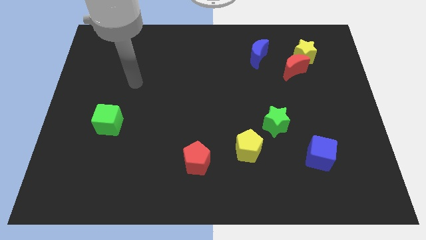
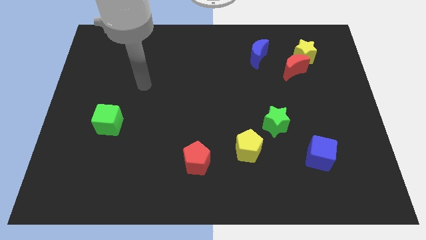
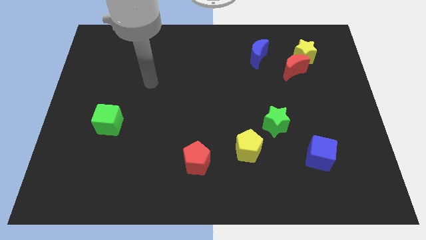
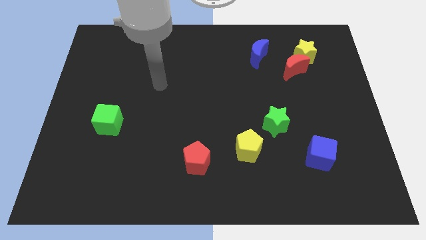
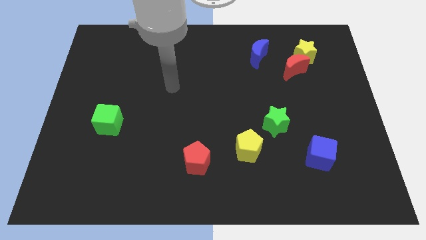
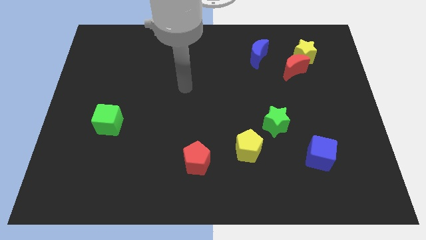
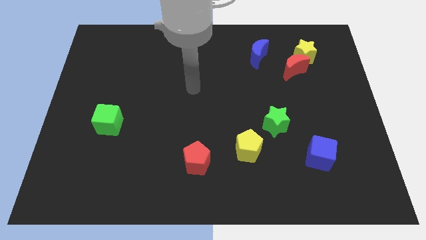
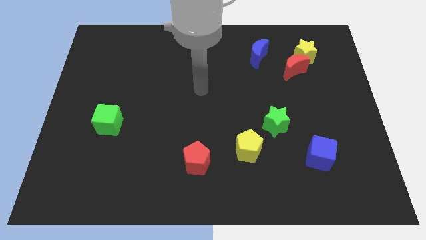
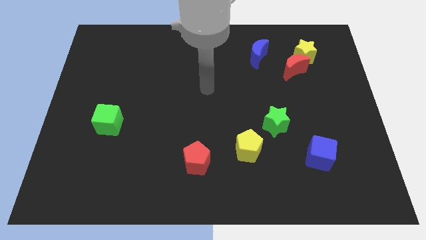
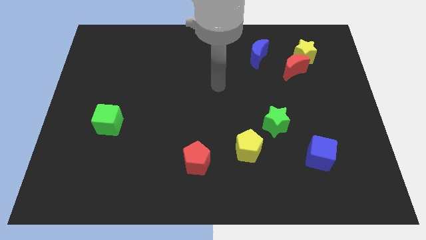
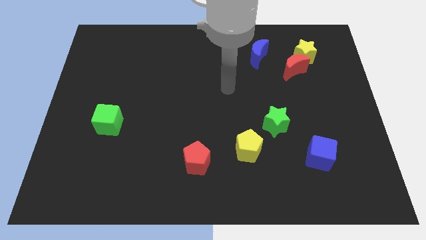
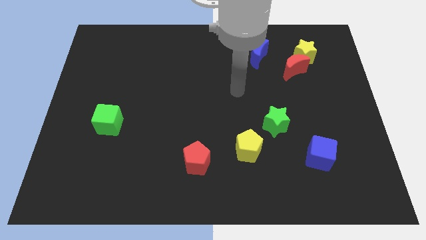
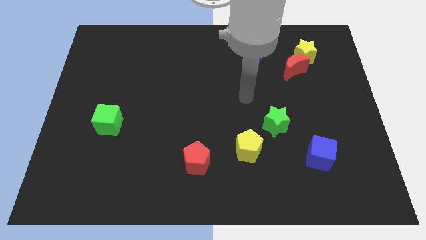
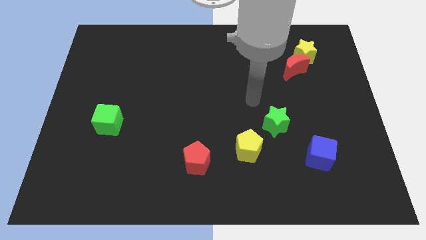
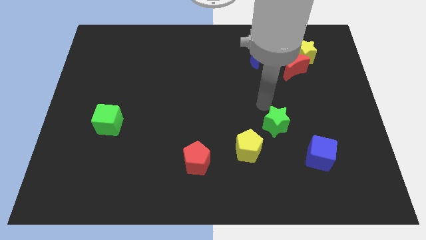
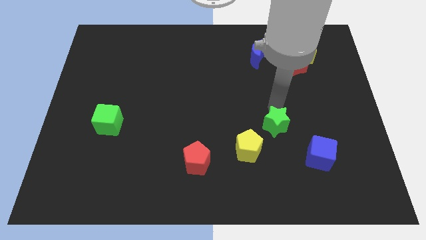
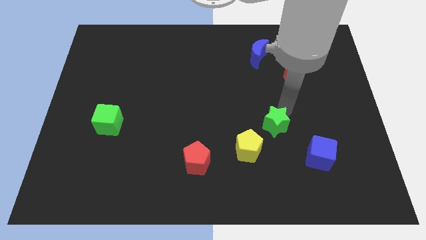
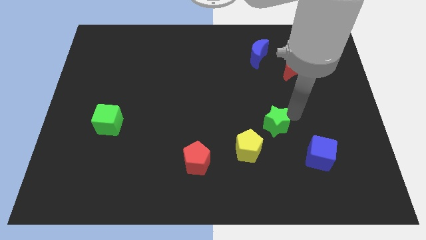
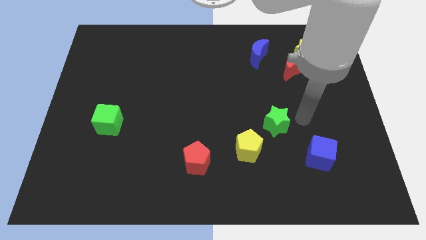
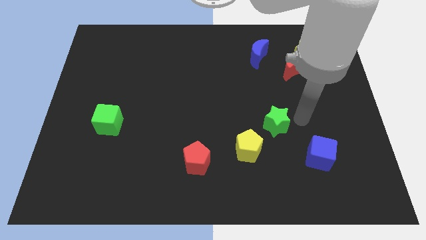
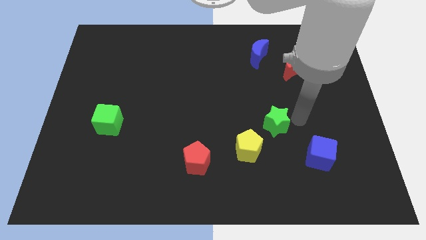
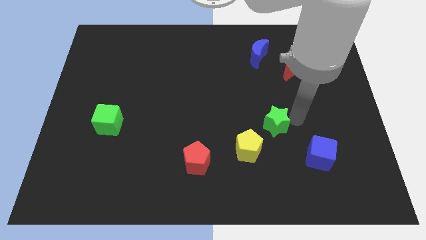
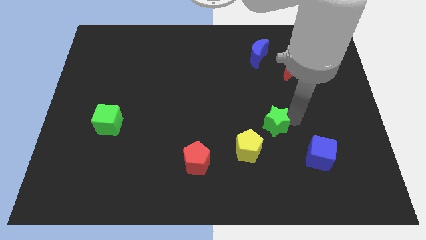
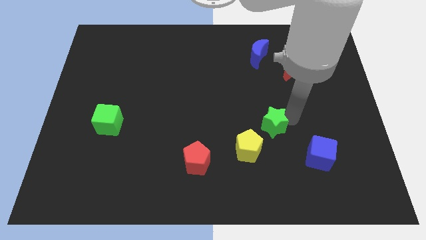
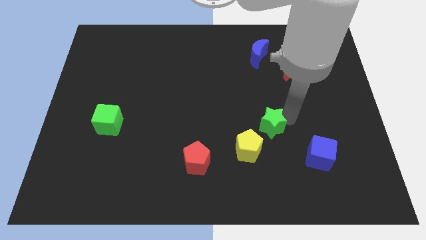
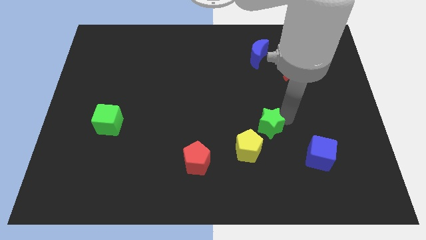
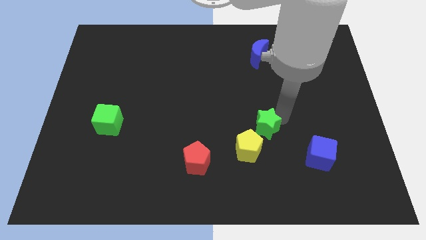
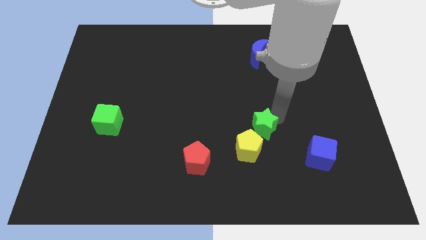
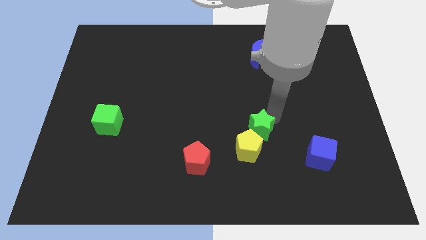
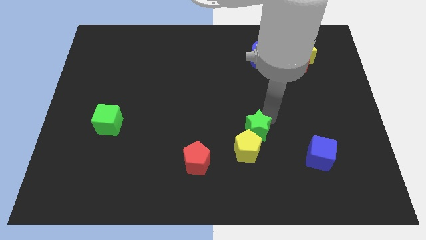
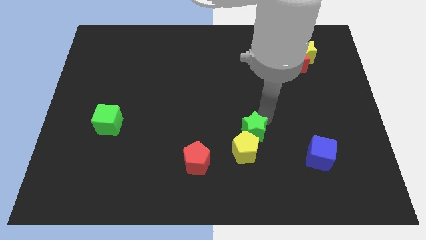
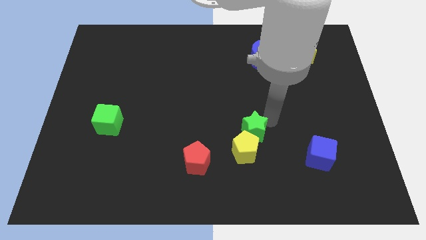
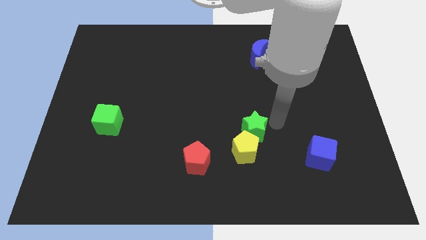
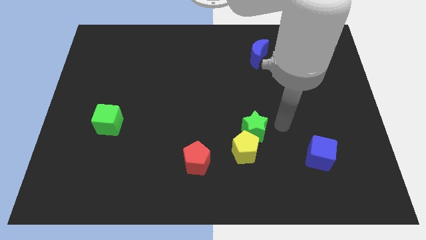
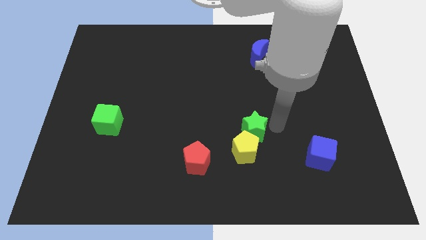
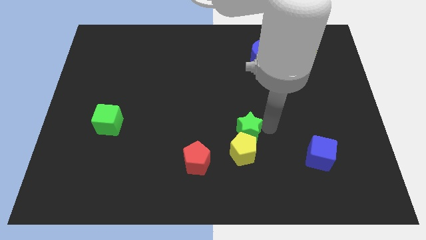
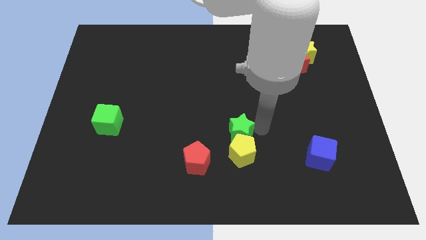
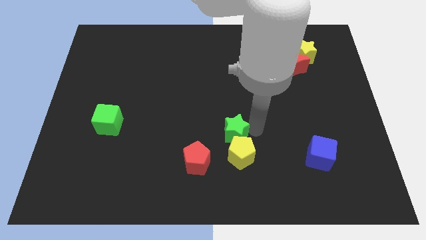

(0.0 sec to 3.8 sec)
slide the green star a little down and left diagonally

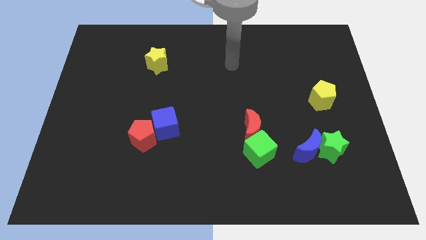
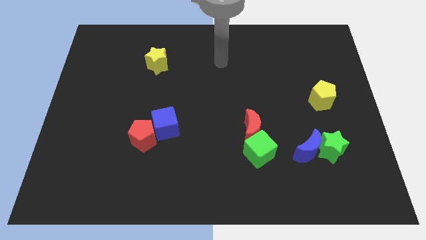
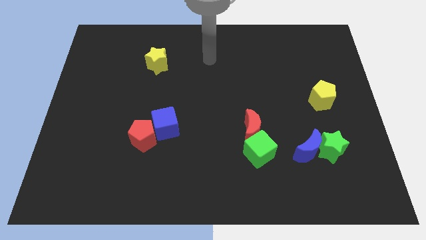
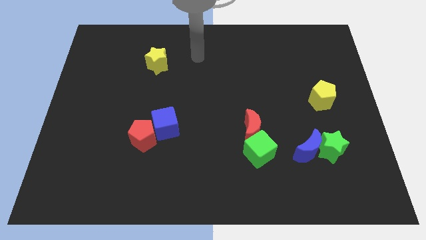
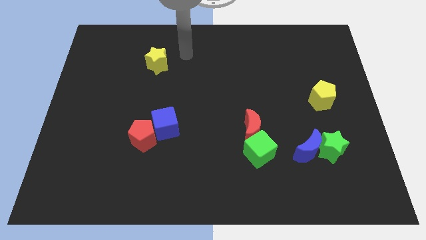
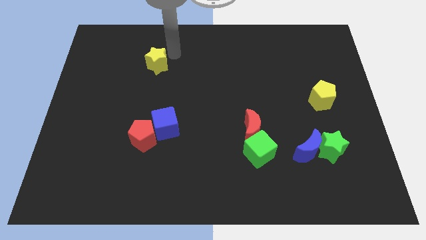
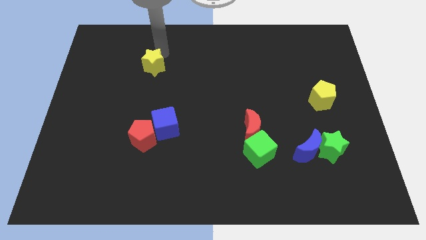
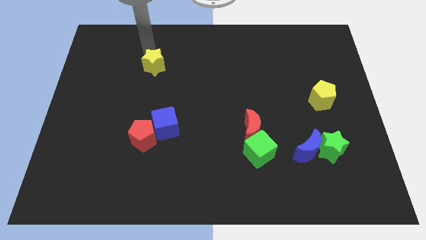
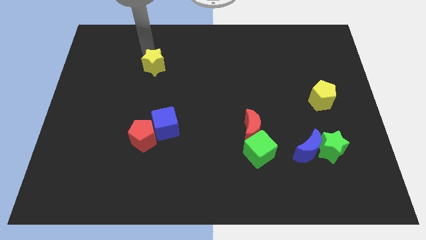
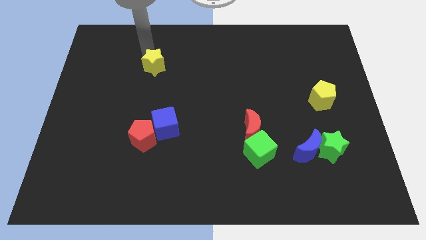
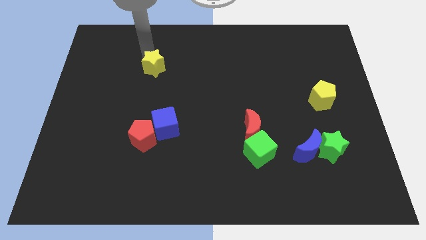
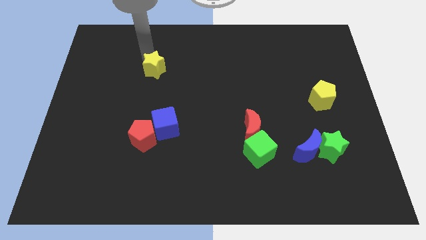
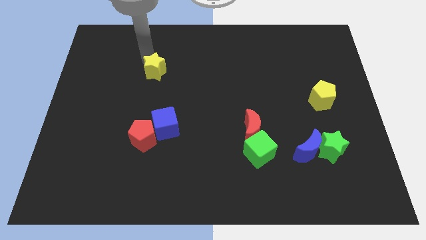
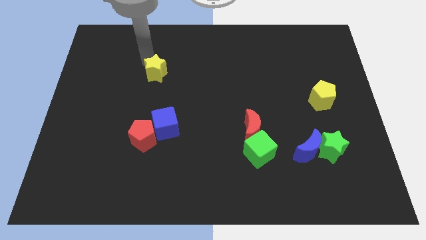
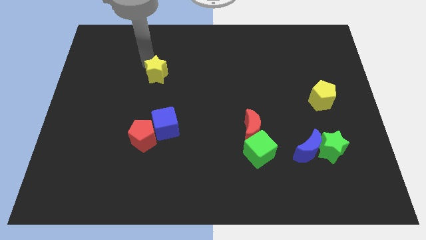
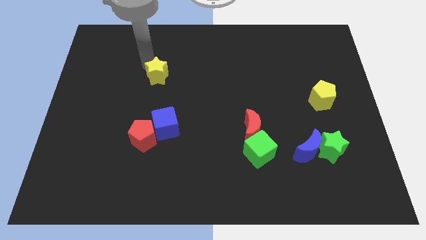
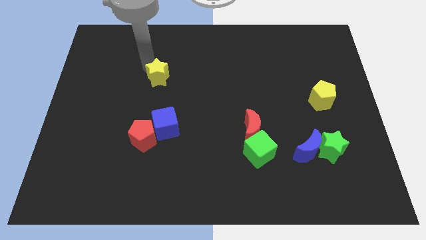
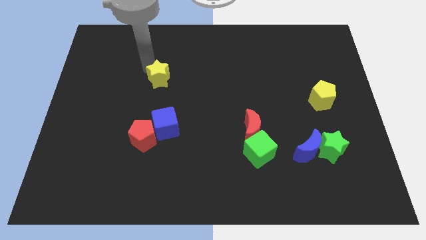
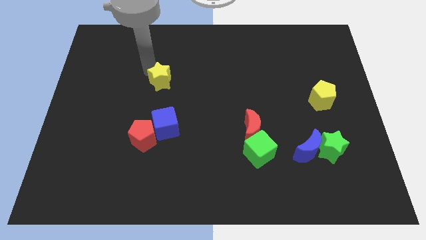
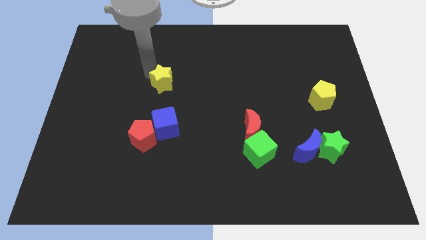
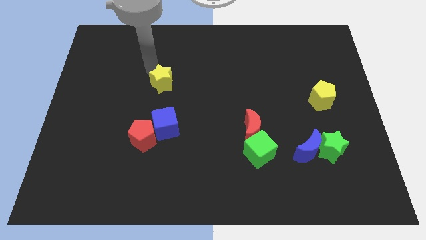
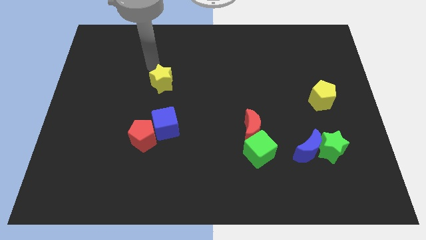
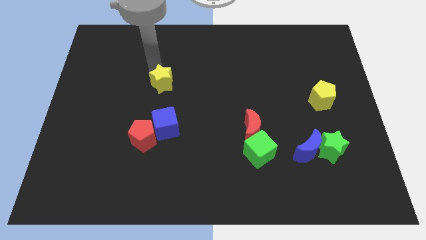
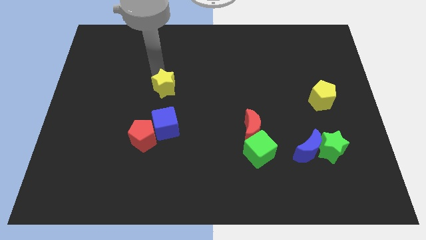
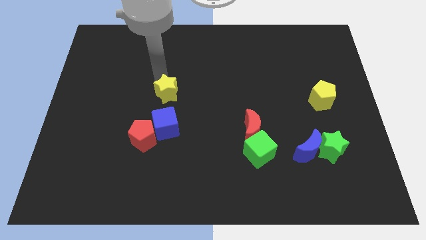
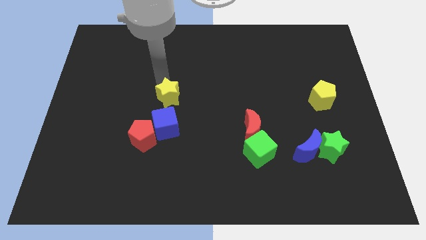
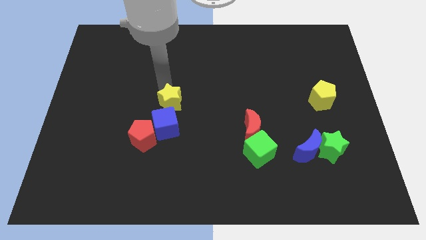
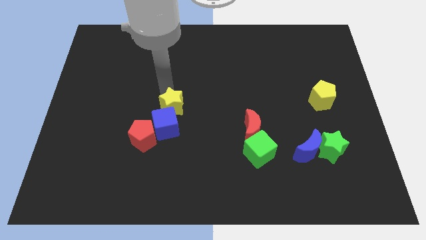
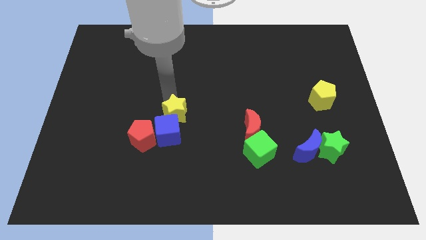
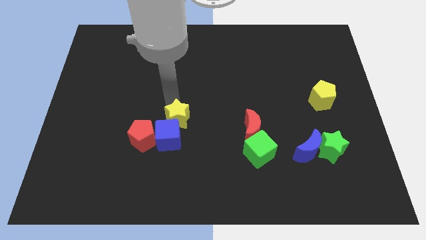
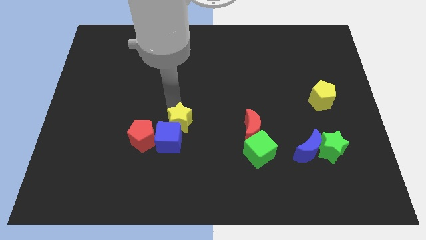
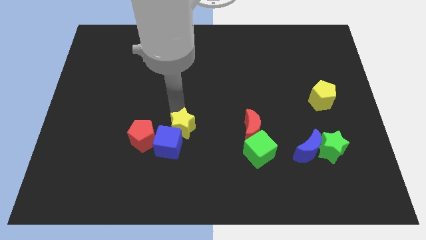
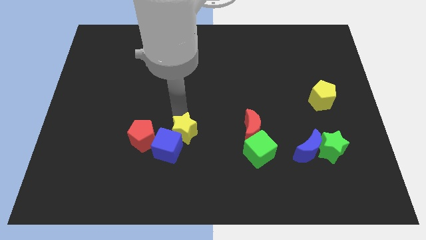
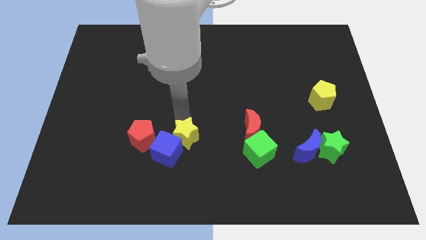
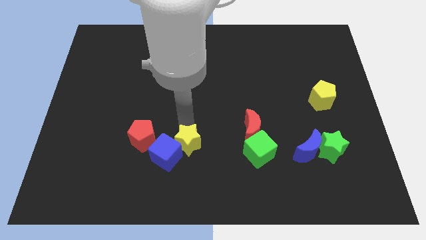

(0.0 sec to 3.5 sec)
push the yellow star down

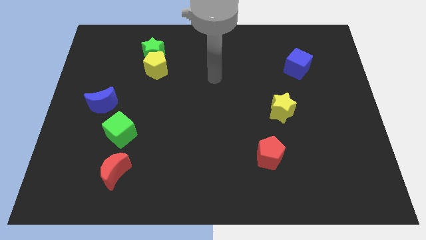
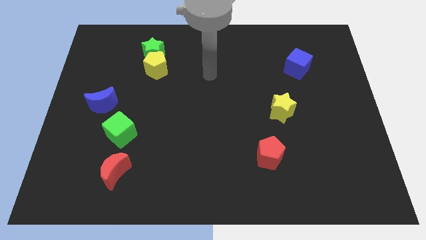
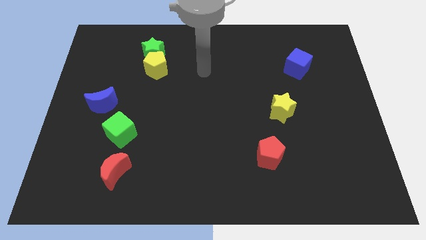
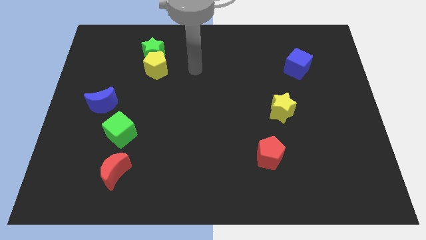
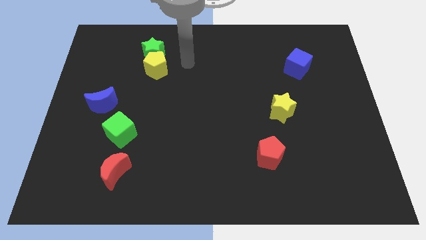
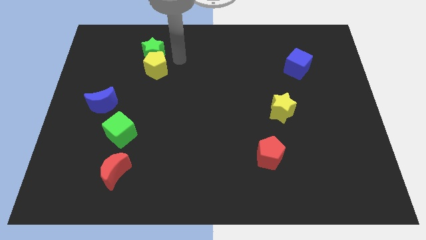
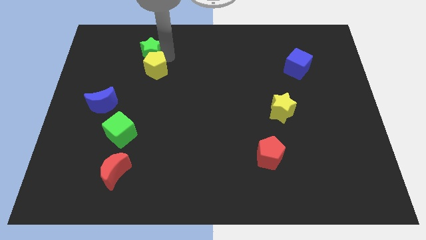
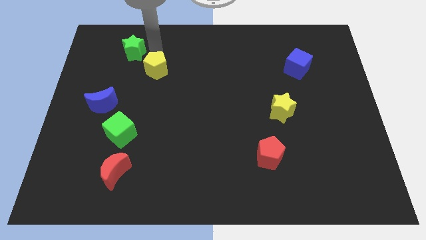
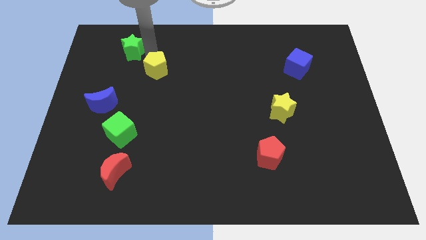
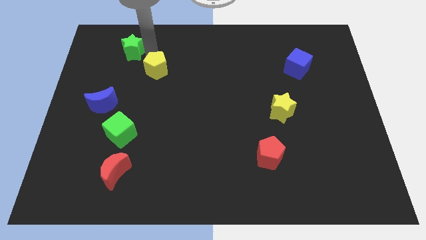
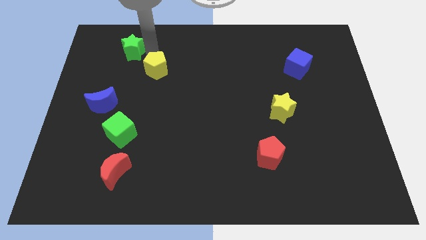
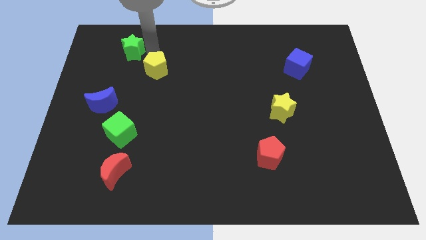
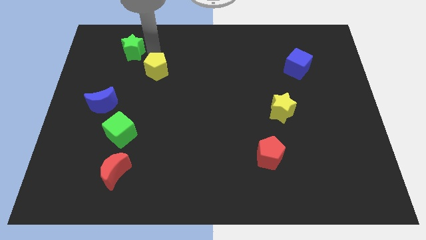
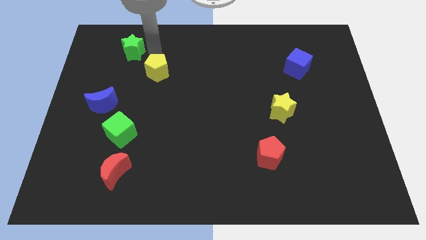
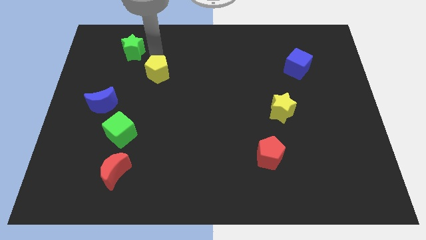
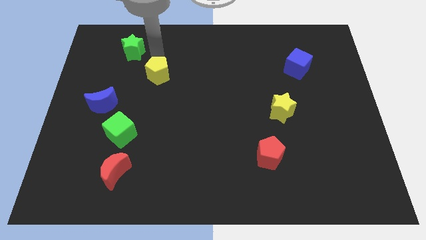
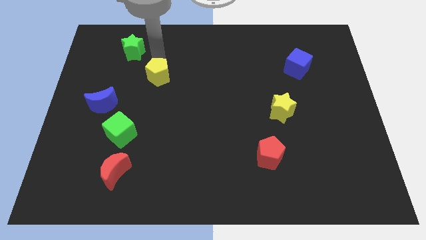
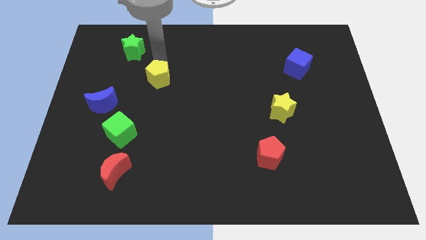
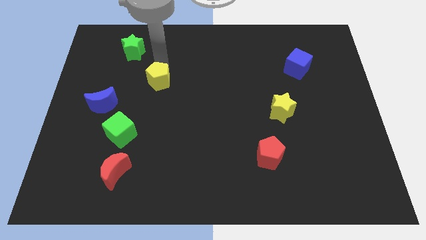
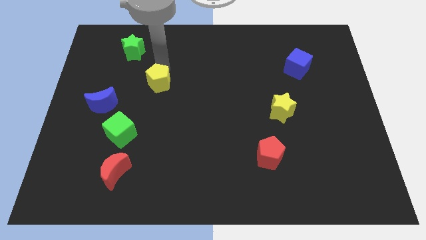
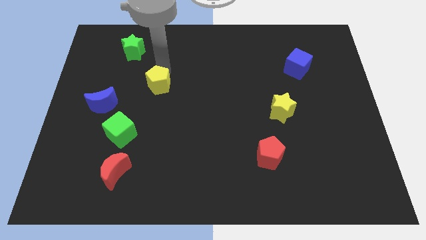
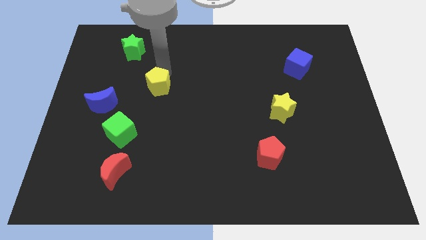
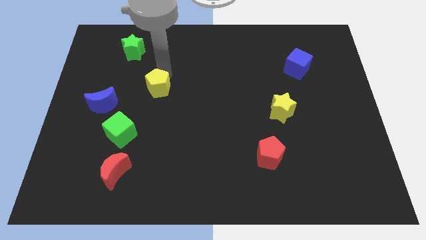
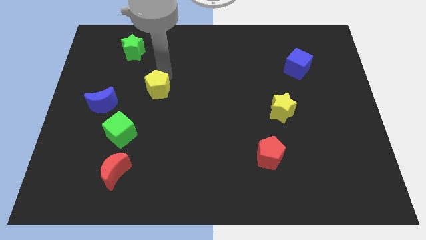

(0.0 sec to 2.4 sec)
push the yellow pentagon a bit downwards
